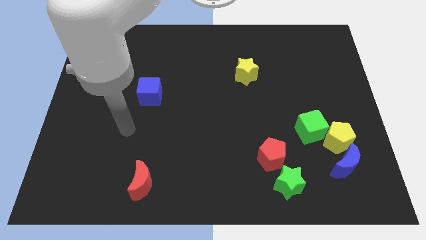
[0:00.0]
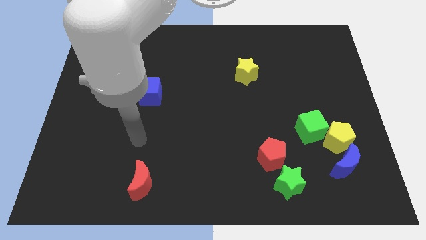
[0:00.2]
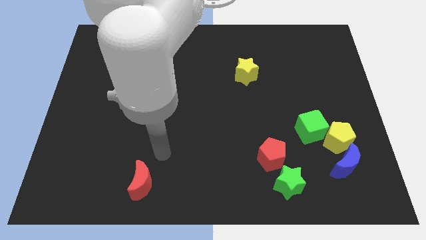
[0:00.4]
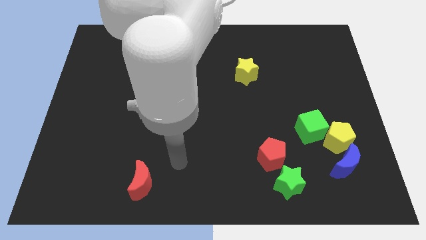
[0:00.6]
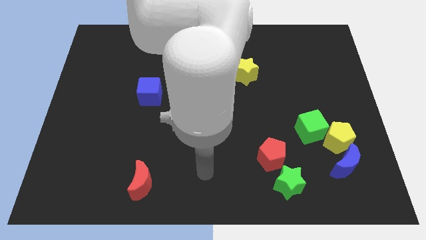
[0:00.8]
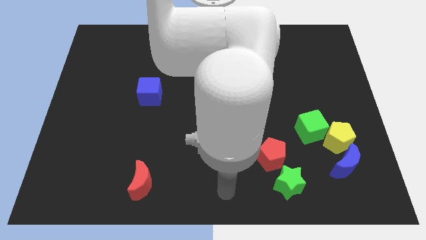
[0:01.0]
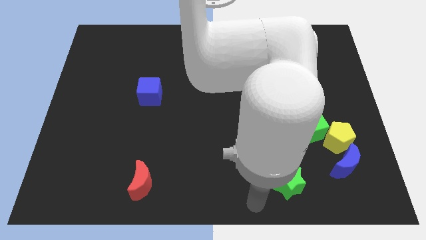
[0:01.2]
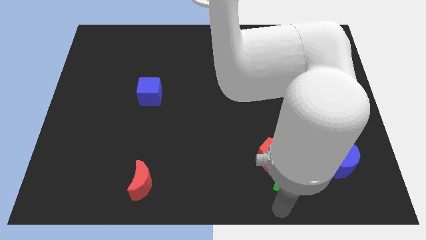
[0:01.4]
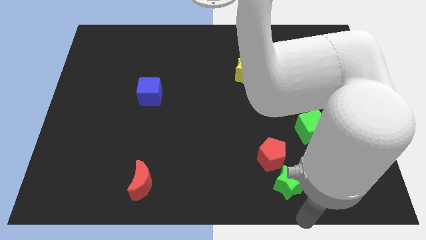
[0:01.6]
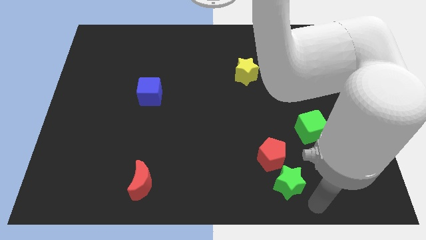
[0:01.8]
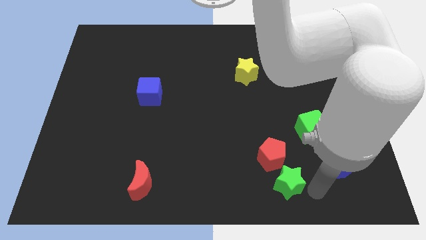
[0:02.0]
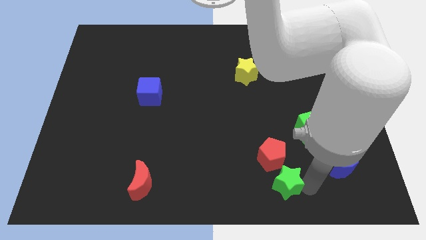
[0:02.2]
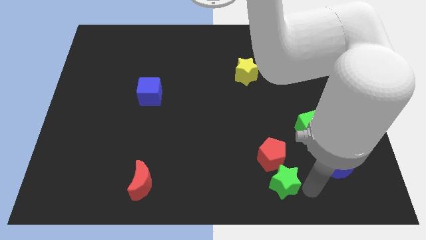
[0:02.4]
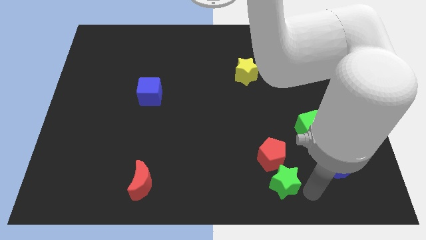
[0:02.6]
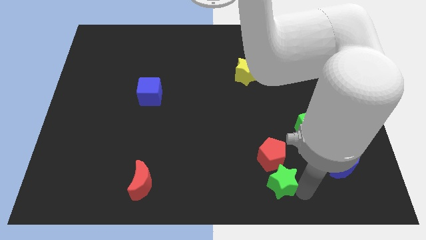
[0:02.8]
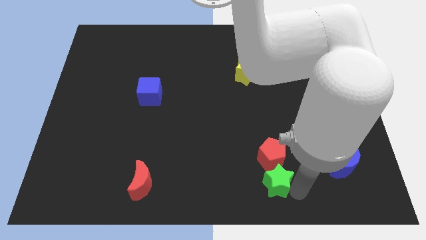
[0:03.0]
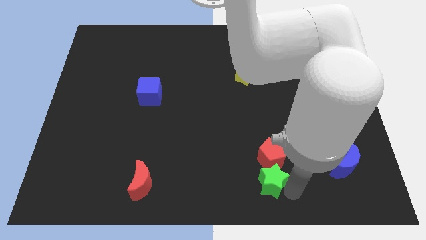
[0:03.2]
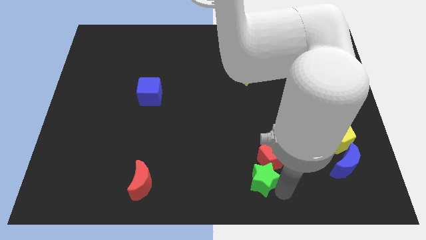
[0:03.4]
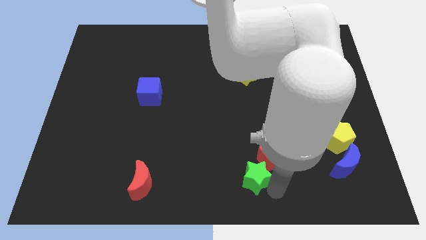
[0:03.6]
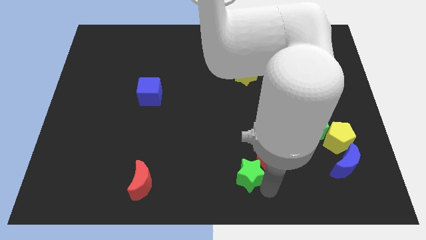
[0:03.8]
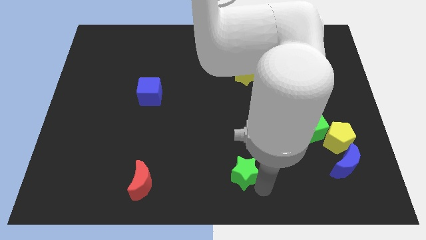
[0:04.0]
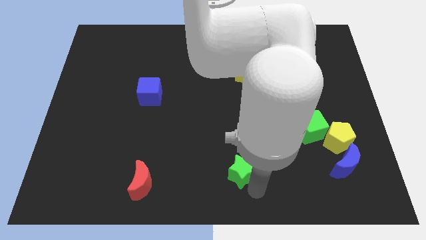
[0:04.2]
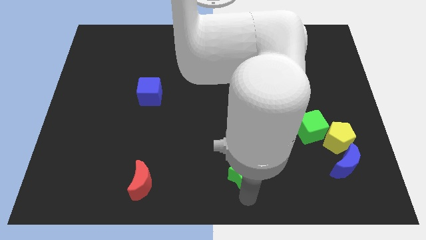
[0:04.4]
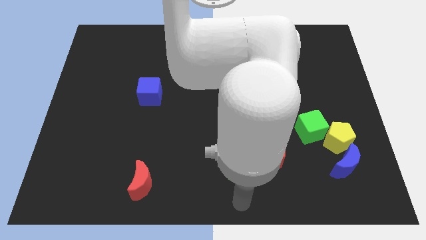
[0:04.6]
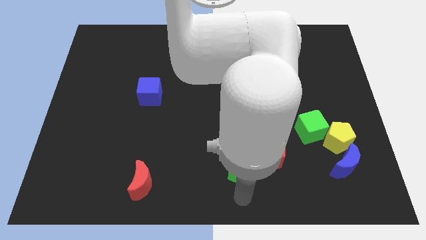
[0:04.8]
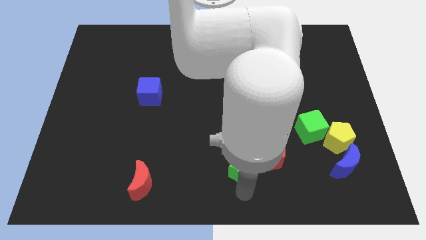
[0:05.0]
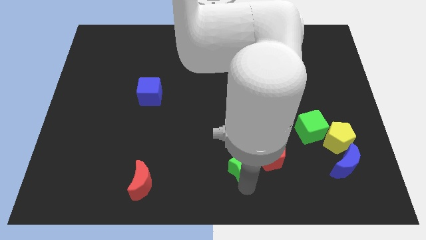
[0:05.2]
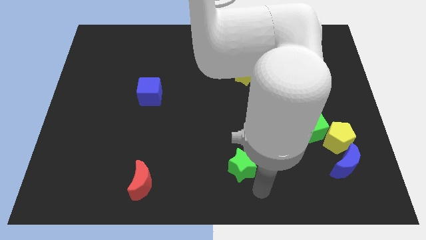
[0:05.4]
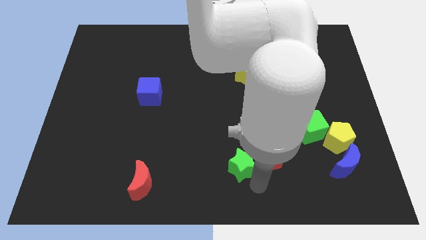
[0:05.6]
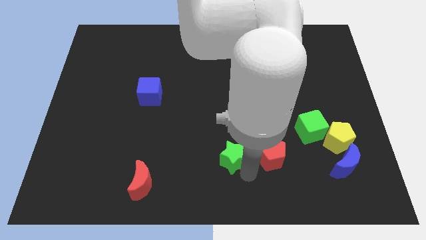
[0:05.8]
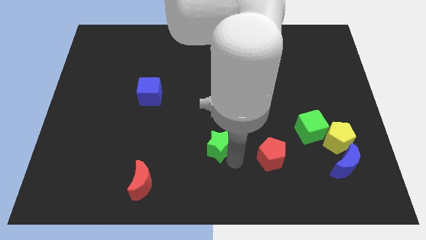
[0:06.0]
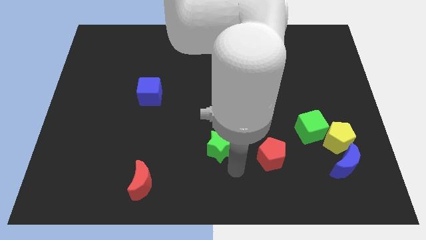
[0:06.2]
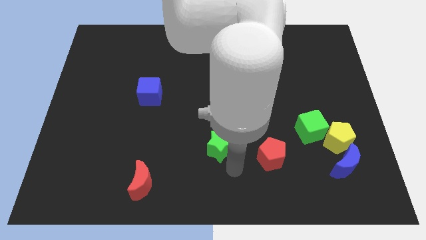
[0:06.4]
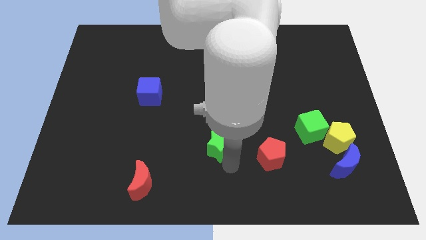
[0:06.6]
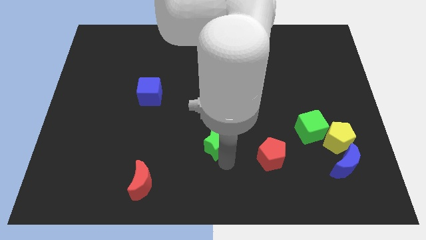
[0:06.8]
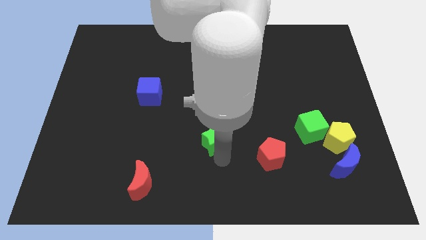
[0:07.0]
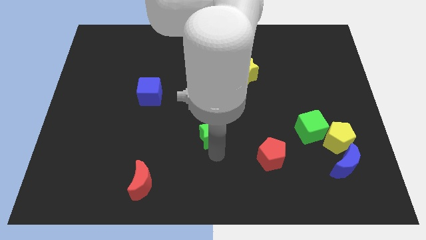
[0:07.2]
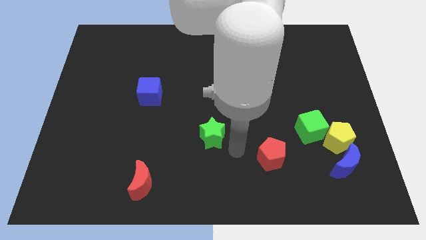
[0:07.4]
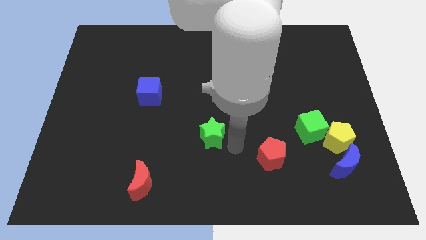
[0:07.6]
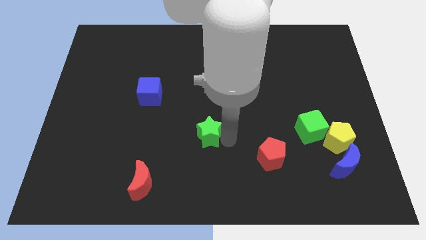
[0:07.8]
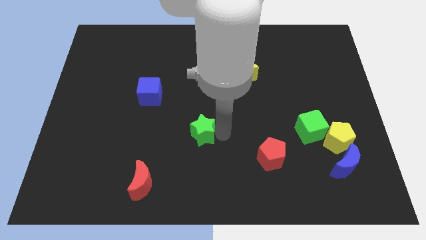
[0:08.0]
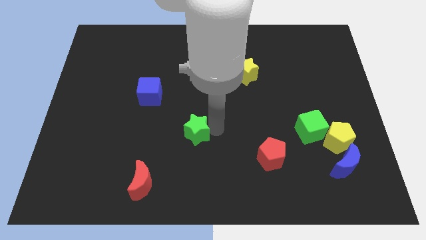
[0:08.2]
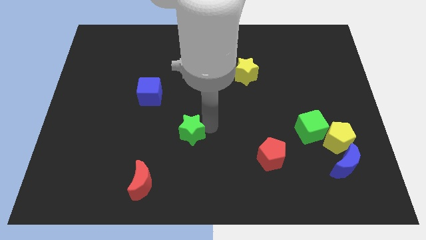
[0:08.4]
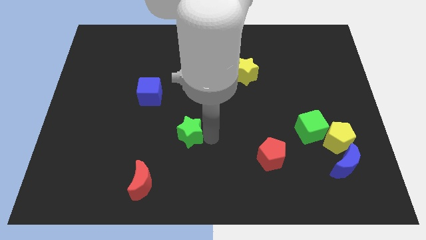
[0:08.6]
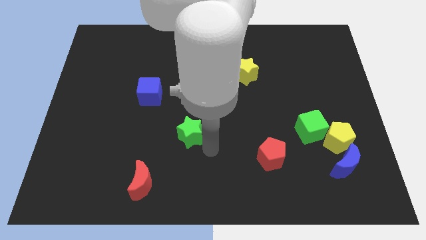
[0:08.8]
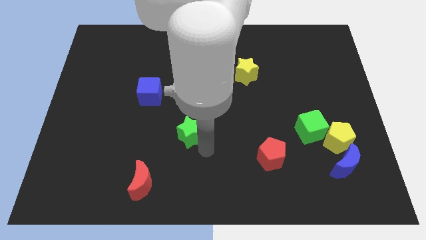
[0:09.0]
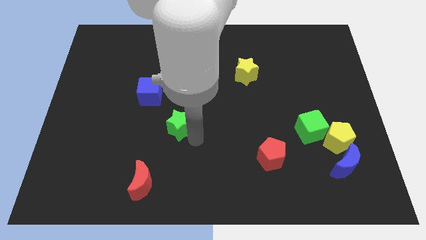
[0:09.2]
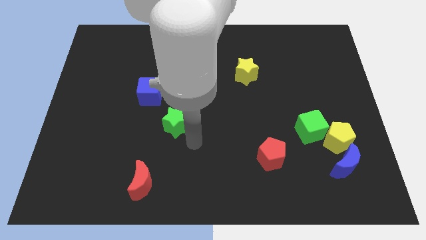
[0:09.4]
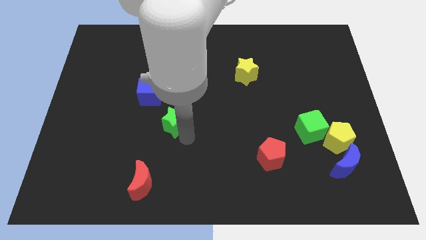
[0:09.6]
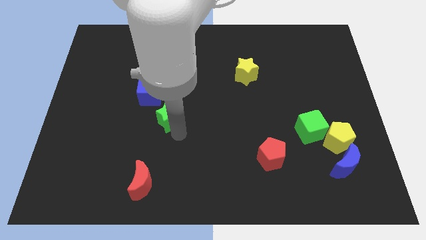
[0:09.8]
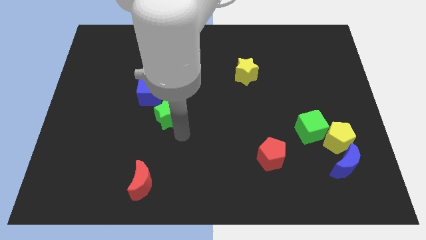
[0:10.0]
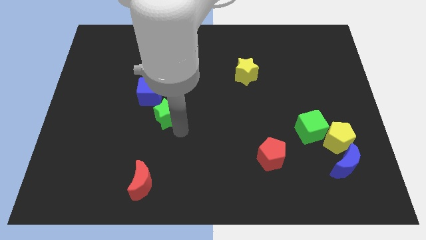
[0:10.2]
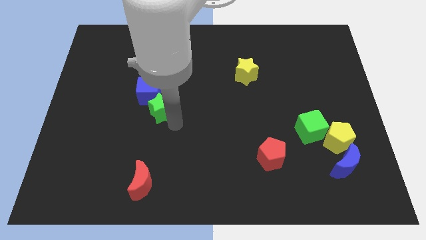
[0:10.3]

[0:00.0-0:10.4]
push the green star next to the blue cube

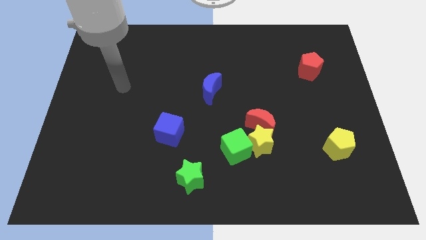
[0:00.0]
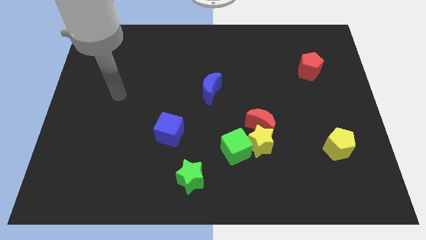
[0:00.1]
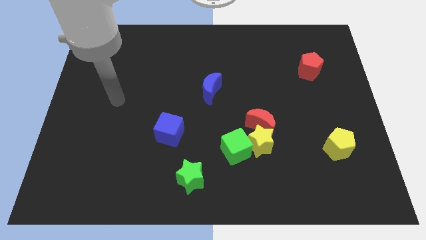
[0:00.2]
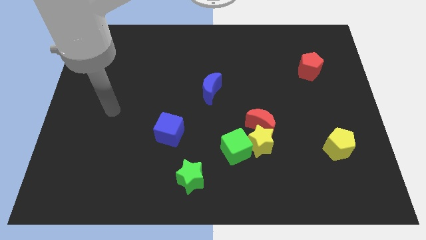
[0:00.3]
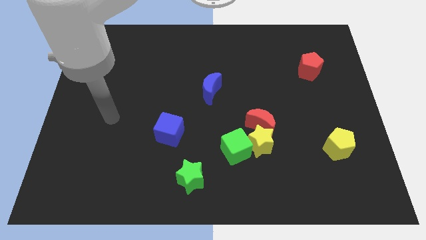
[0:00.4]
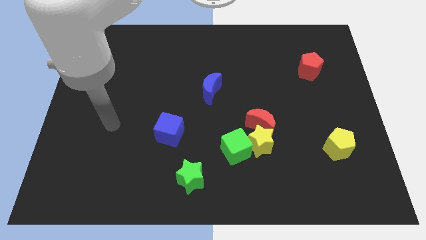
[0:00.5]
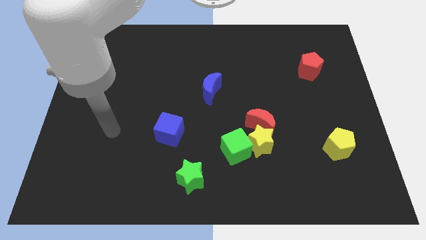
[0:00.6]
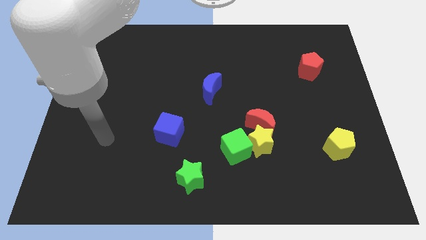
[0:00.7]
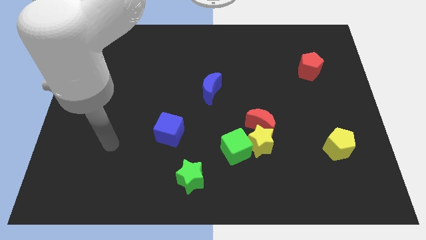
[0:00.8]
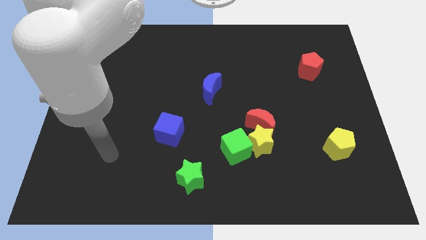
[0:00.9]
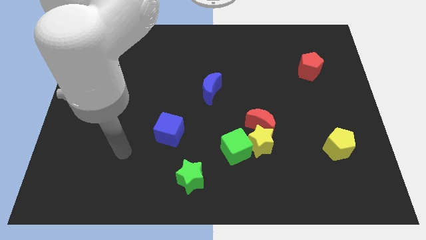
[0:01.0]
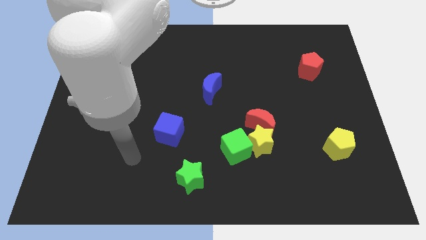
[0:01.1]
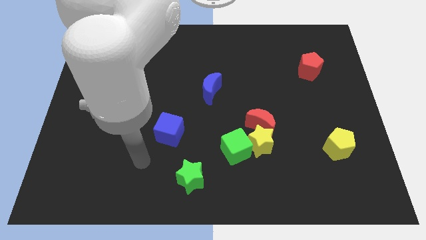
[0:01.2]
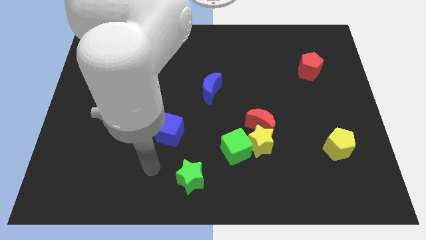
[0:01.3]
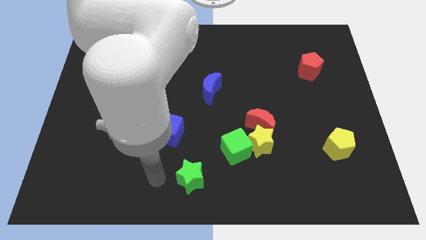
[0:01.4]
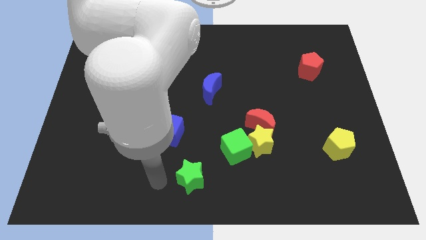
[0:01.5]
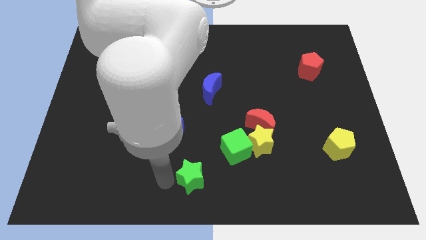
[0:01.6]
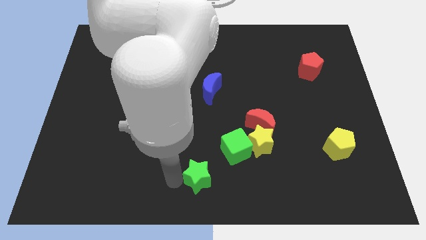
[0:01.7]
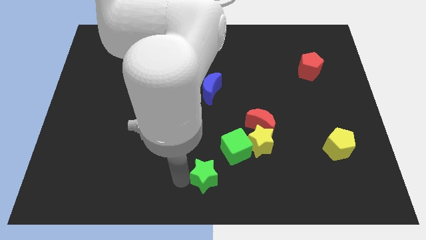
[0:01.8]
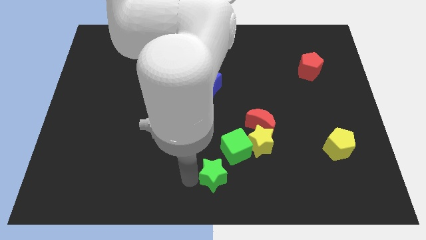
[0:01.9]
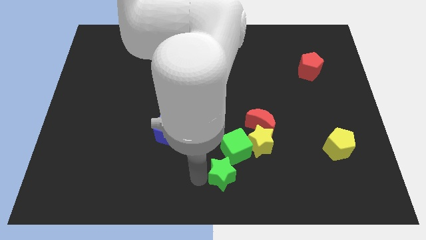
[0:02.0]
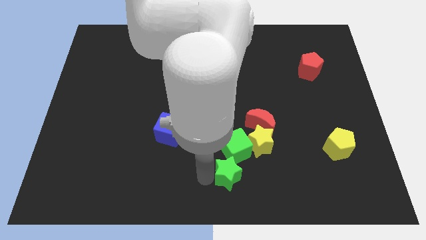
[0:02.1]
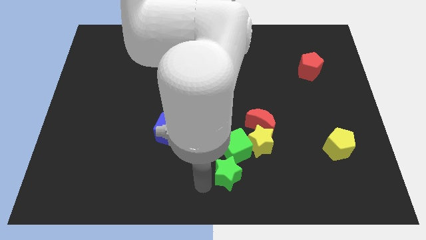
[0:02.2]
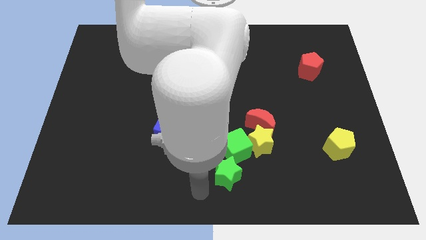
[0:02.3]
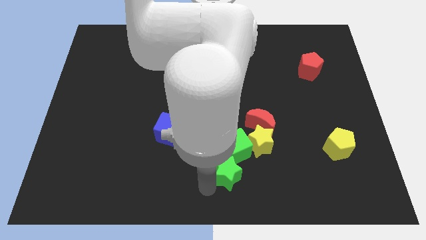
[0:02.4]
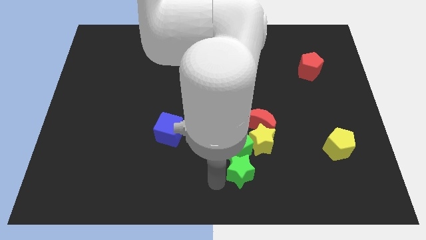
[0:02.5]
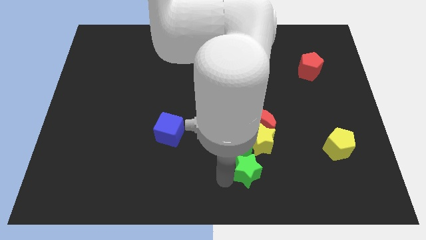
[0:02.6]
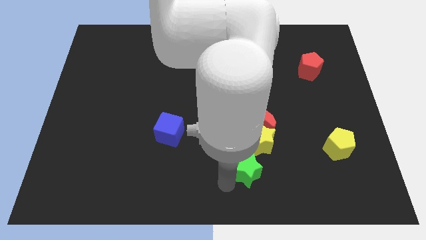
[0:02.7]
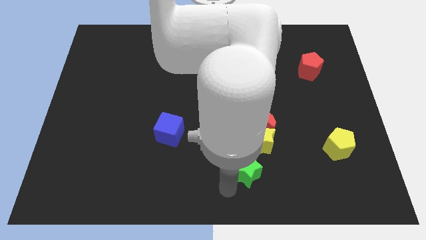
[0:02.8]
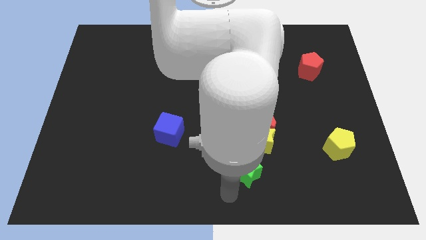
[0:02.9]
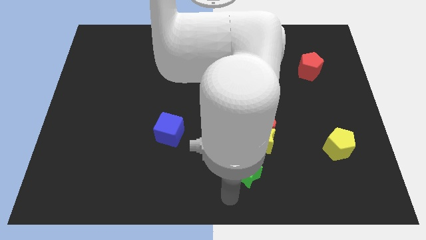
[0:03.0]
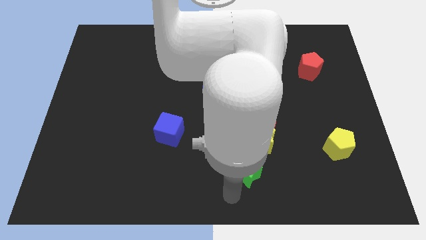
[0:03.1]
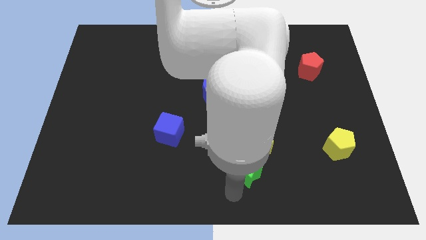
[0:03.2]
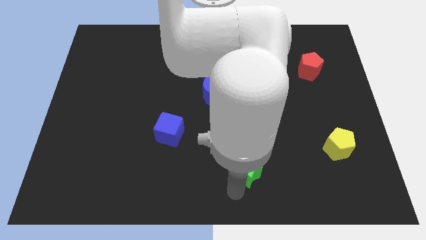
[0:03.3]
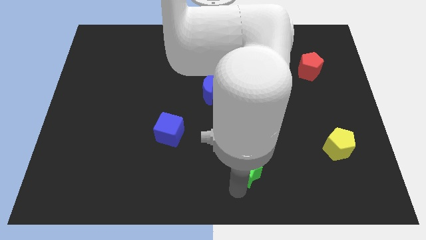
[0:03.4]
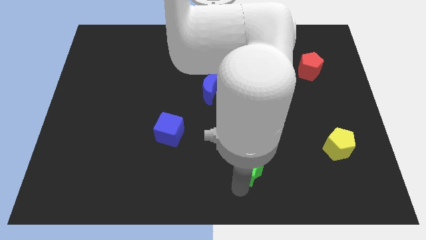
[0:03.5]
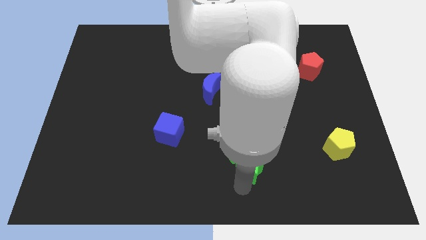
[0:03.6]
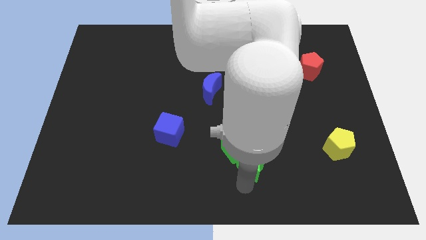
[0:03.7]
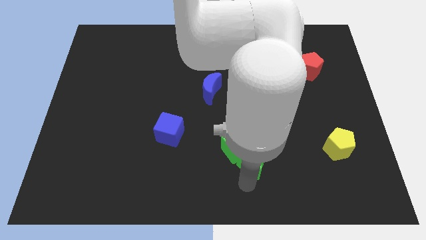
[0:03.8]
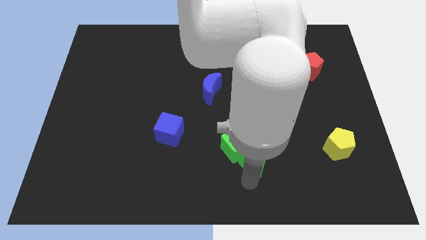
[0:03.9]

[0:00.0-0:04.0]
move the green star towards the yellow star
